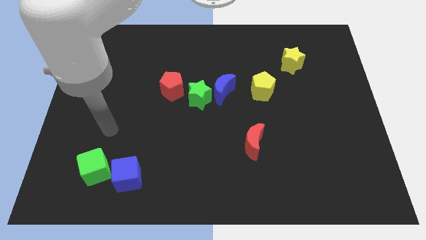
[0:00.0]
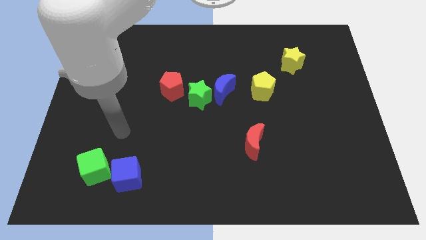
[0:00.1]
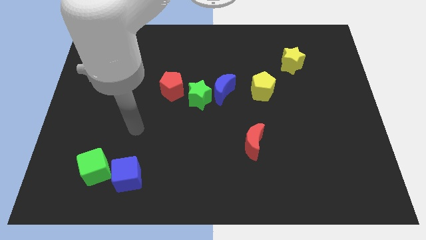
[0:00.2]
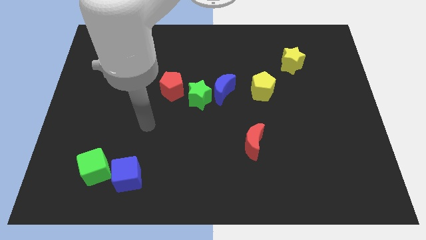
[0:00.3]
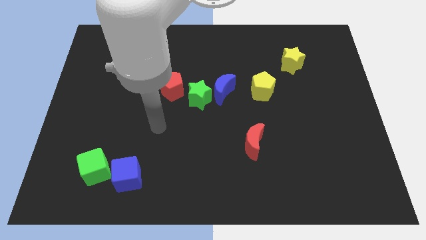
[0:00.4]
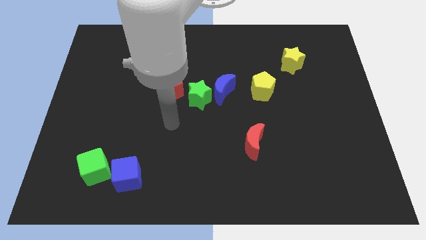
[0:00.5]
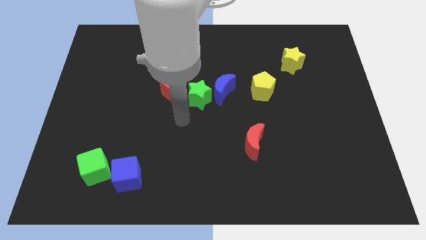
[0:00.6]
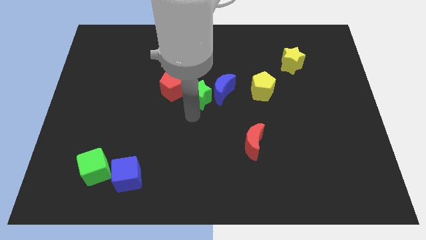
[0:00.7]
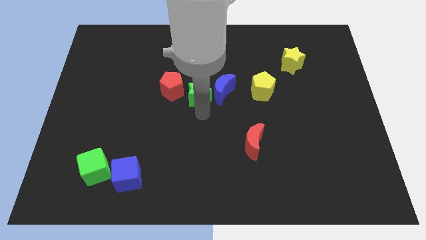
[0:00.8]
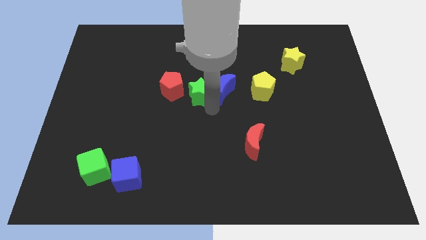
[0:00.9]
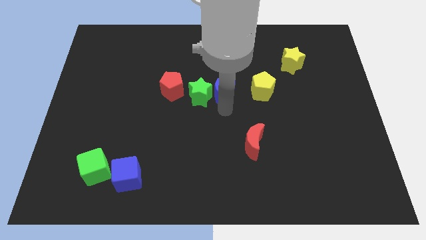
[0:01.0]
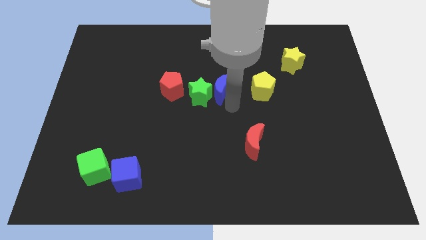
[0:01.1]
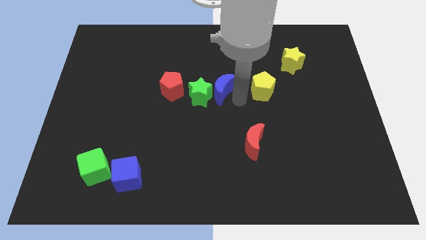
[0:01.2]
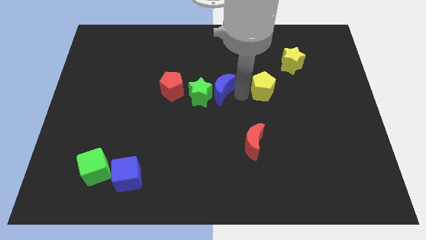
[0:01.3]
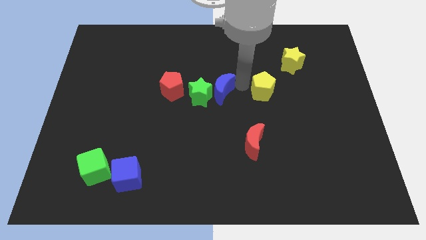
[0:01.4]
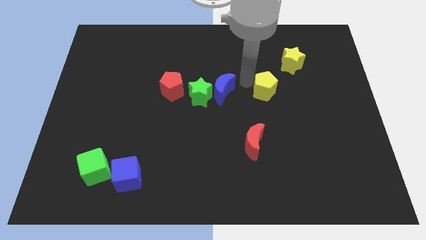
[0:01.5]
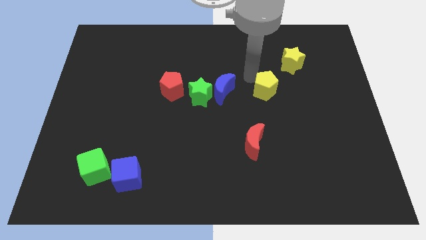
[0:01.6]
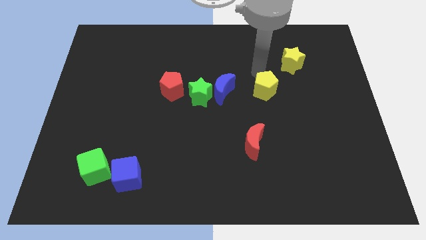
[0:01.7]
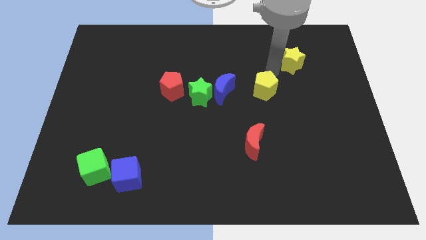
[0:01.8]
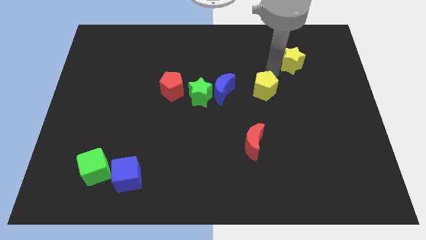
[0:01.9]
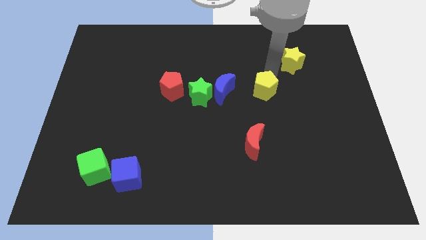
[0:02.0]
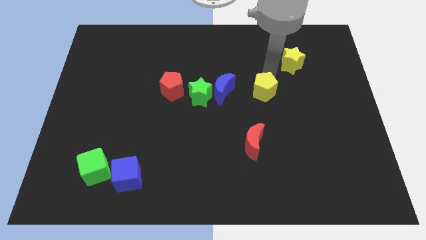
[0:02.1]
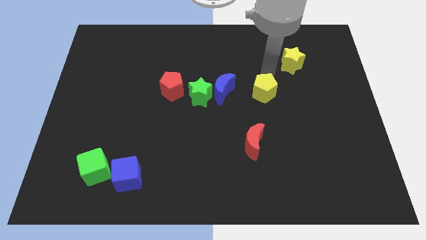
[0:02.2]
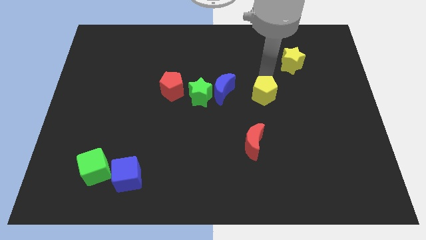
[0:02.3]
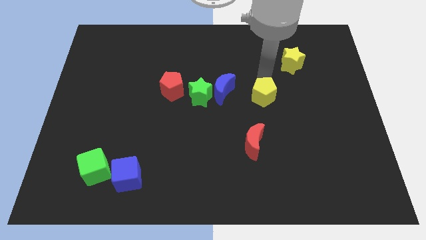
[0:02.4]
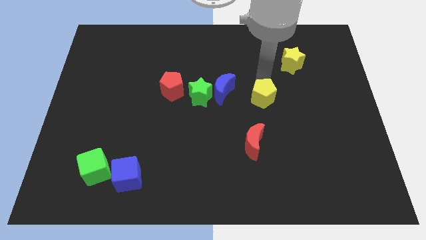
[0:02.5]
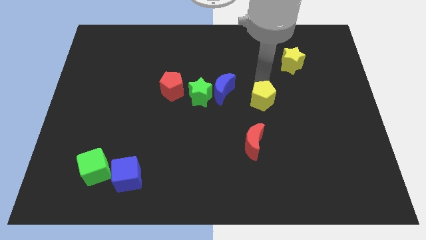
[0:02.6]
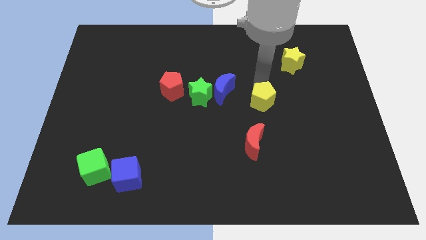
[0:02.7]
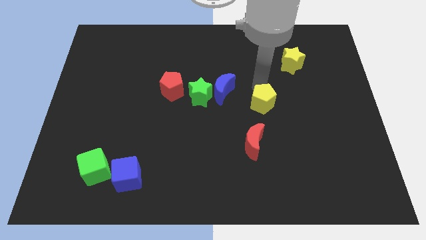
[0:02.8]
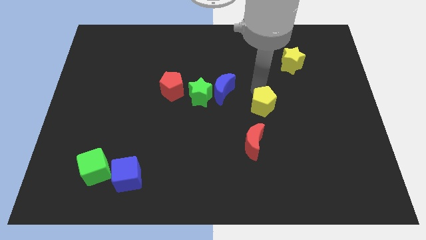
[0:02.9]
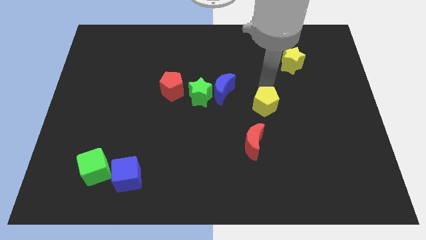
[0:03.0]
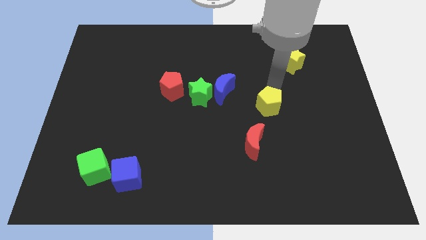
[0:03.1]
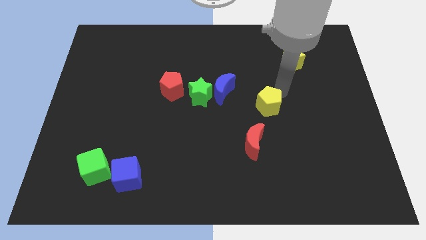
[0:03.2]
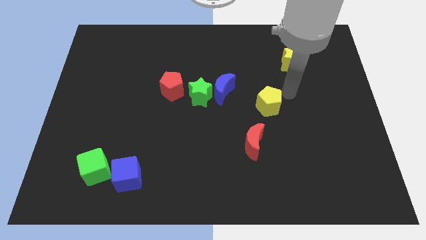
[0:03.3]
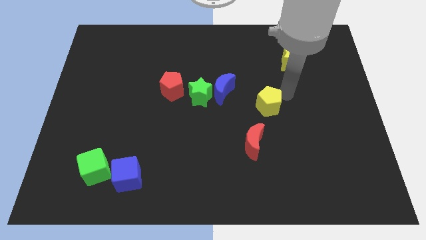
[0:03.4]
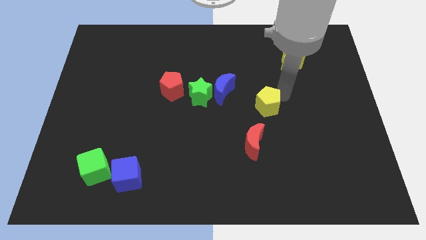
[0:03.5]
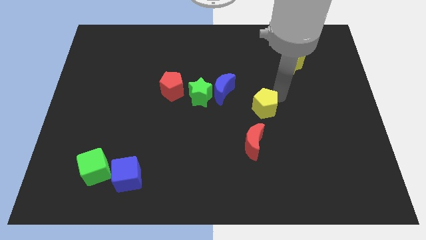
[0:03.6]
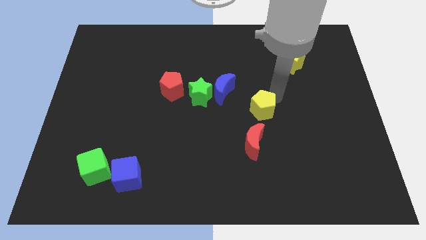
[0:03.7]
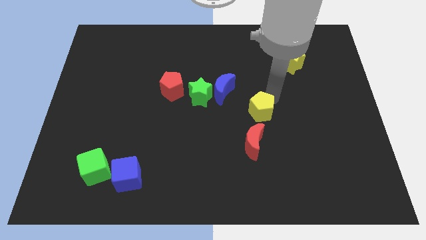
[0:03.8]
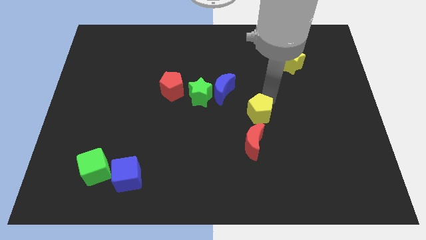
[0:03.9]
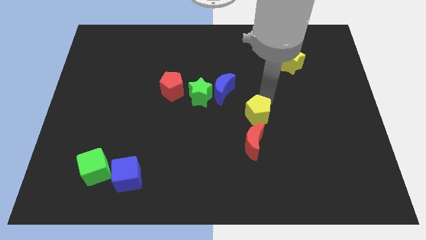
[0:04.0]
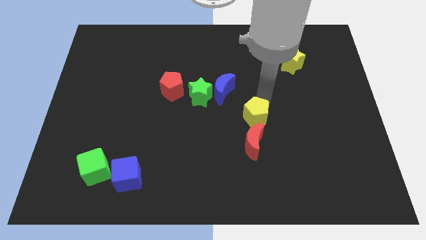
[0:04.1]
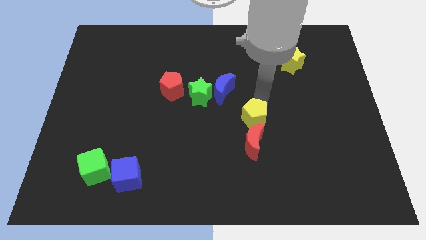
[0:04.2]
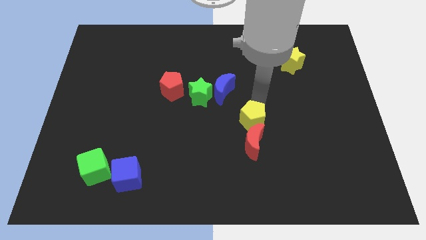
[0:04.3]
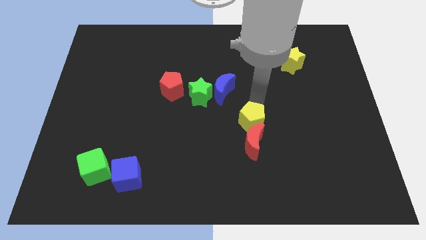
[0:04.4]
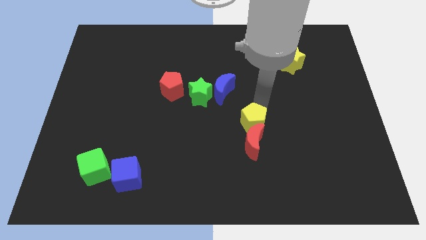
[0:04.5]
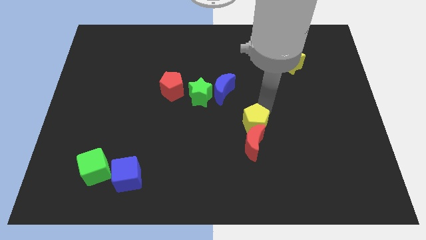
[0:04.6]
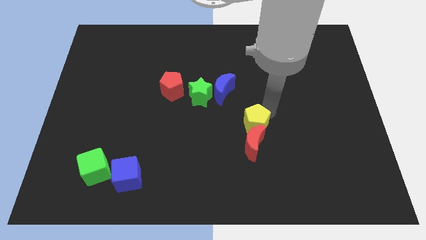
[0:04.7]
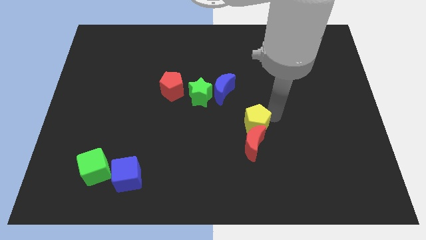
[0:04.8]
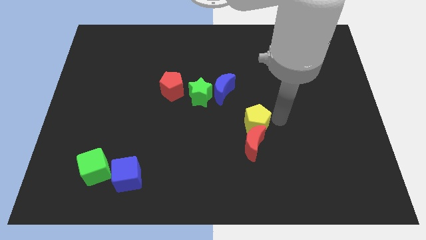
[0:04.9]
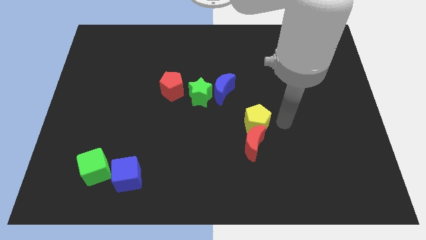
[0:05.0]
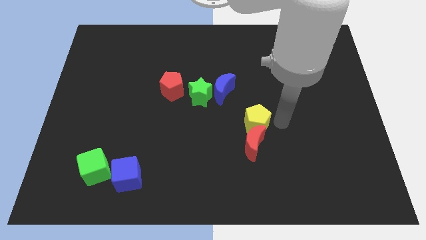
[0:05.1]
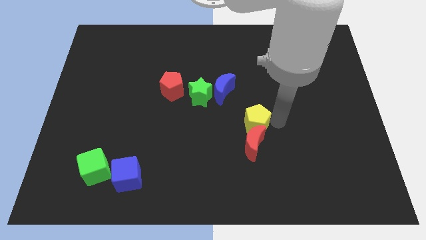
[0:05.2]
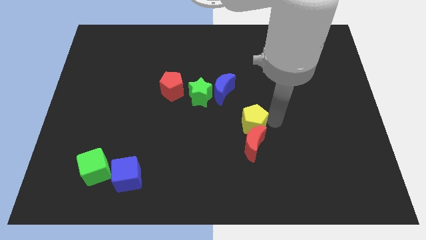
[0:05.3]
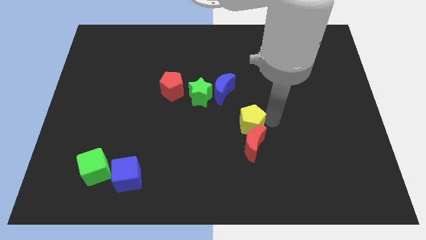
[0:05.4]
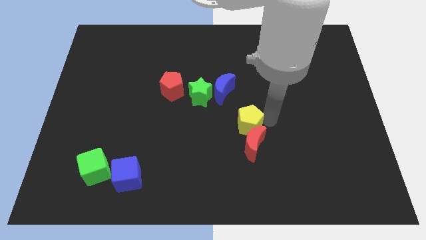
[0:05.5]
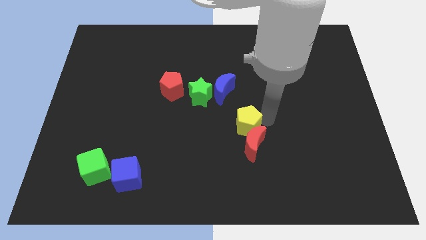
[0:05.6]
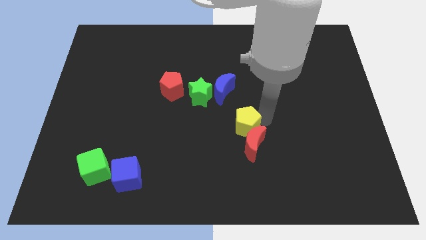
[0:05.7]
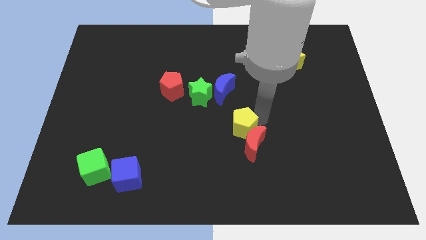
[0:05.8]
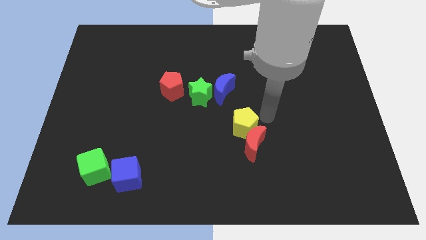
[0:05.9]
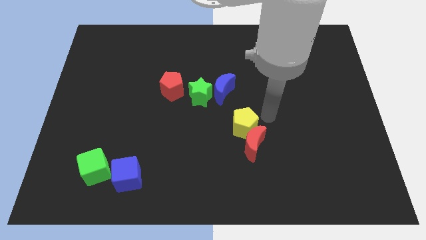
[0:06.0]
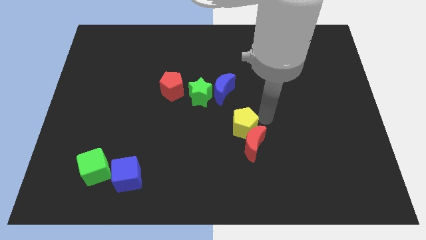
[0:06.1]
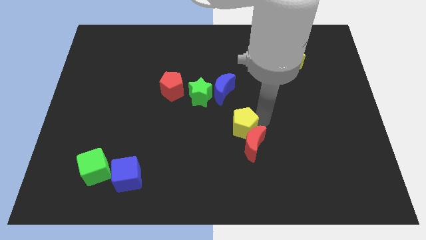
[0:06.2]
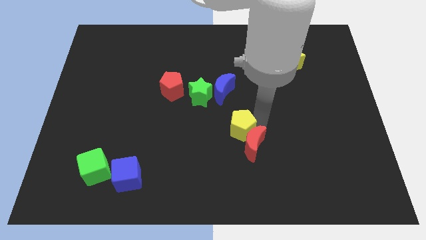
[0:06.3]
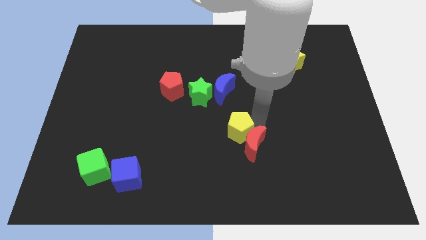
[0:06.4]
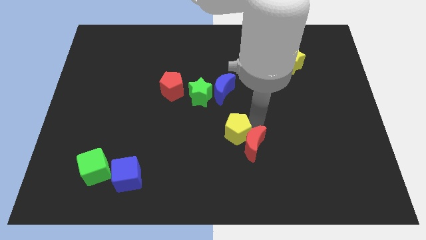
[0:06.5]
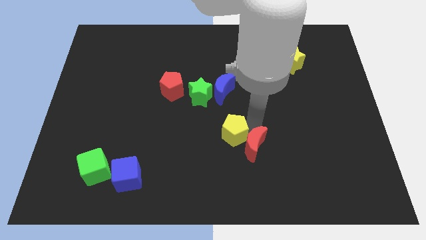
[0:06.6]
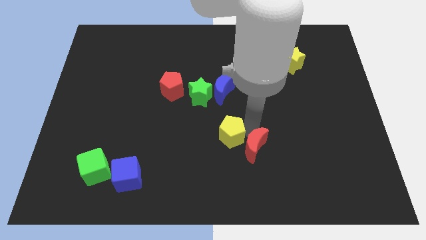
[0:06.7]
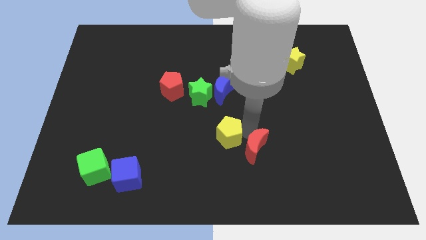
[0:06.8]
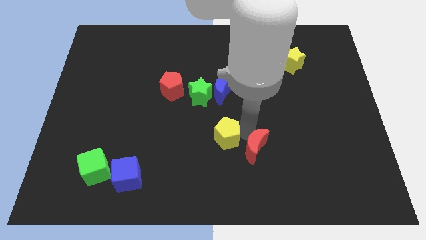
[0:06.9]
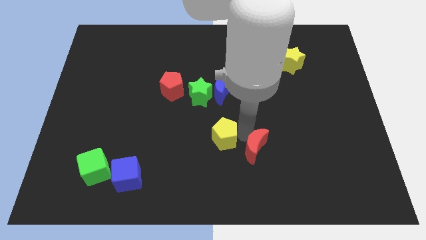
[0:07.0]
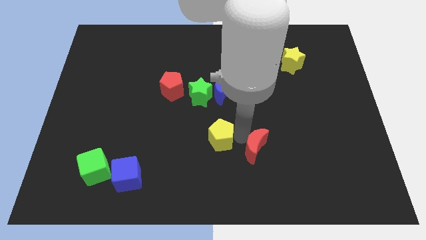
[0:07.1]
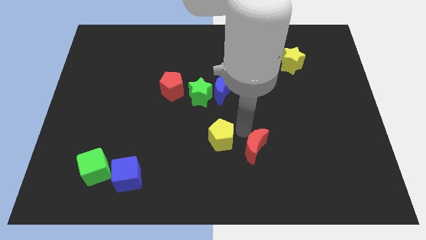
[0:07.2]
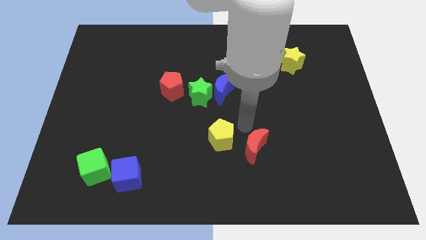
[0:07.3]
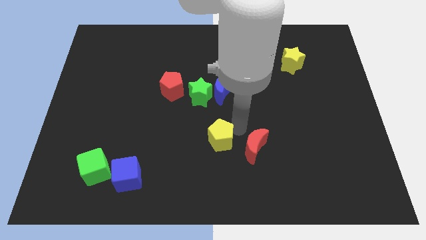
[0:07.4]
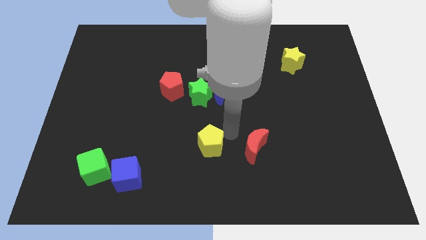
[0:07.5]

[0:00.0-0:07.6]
slide the yellow pentagon down and then left

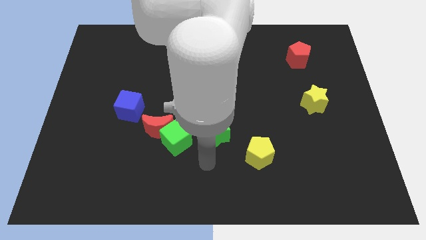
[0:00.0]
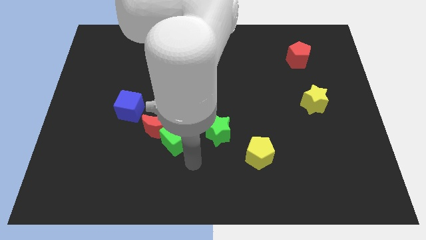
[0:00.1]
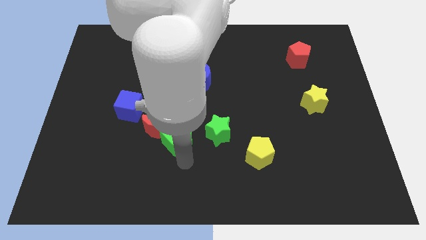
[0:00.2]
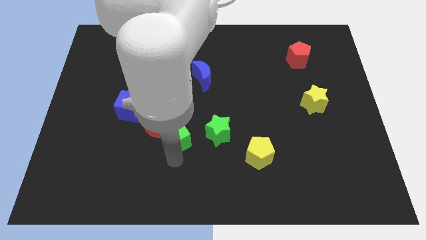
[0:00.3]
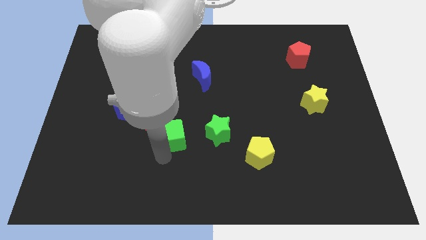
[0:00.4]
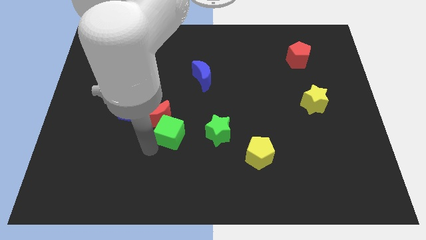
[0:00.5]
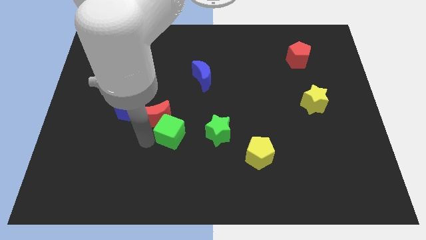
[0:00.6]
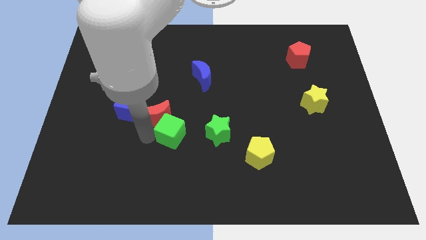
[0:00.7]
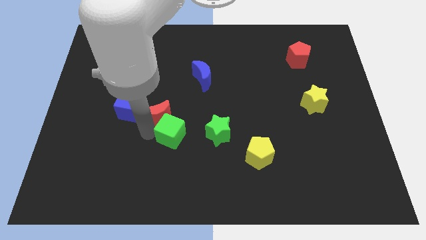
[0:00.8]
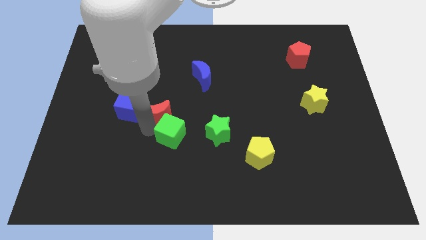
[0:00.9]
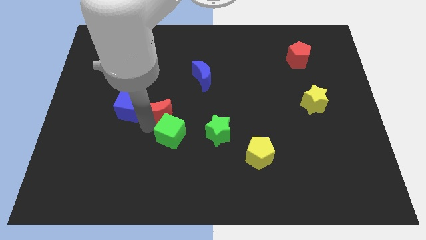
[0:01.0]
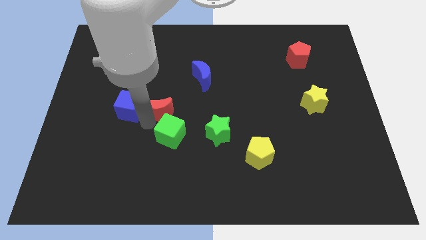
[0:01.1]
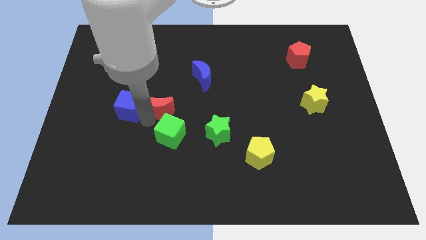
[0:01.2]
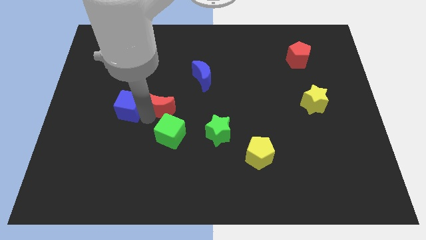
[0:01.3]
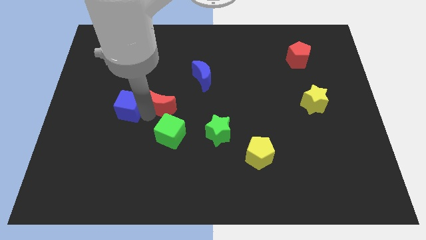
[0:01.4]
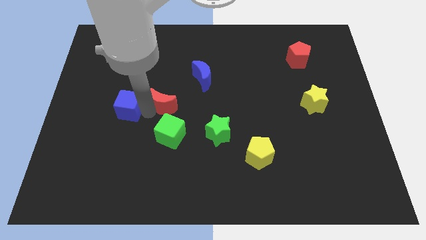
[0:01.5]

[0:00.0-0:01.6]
slightly slide the red moon up
